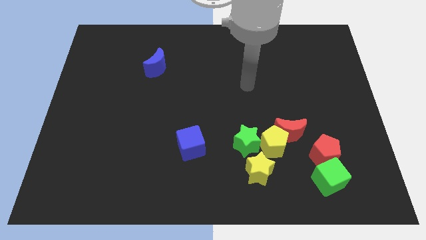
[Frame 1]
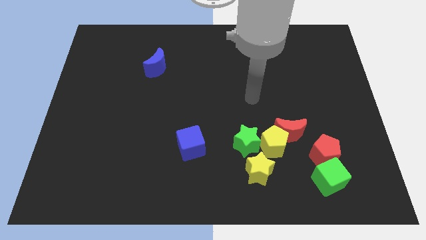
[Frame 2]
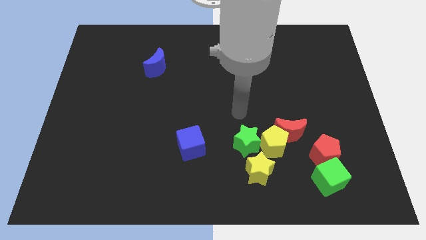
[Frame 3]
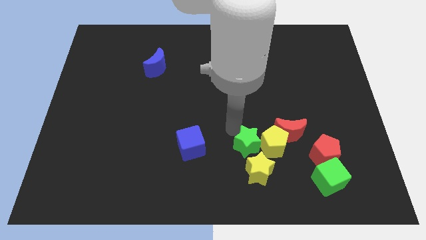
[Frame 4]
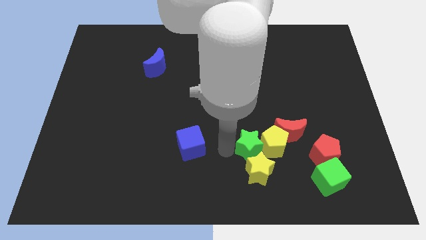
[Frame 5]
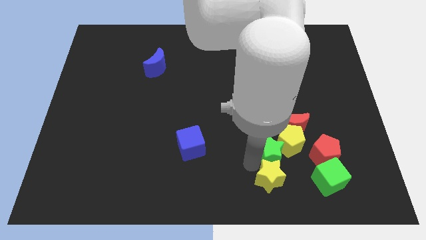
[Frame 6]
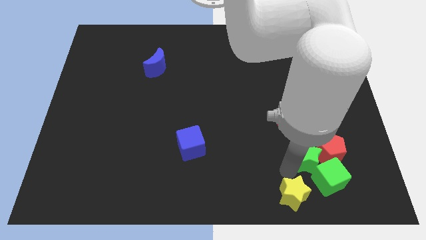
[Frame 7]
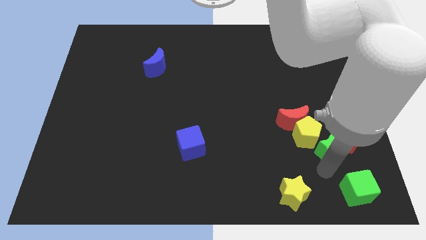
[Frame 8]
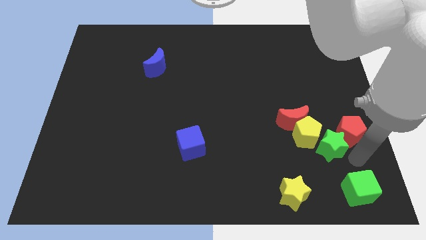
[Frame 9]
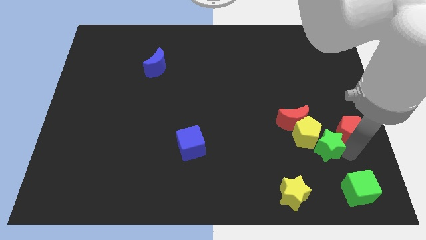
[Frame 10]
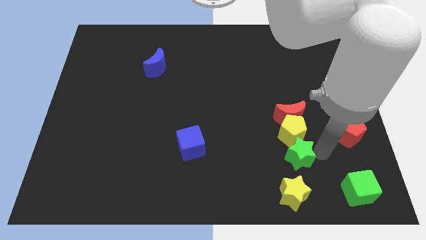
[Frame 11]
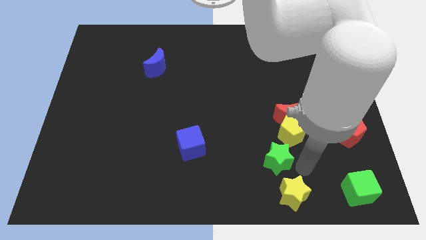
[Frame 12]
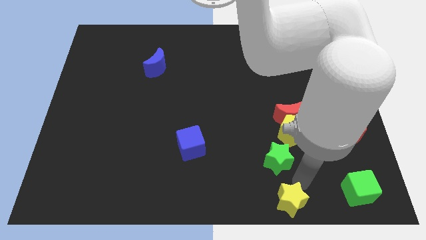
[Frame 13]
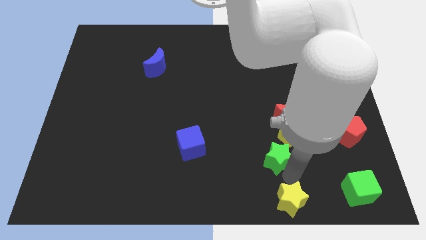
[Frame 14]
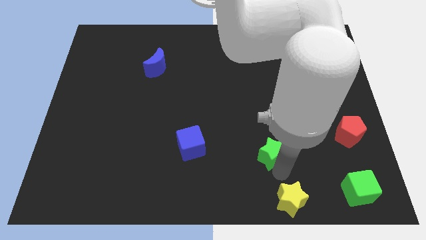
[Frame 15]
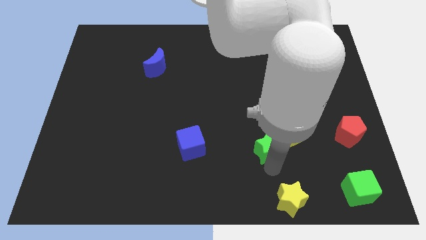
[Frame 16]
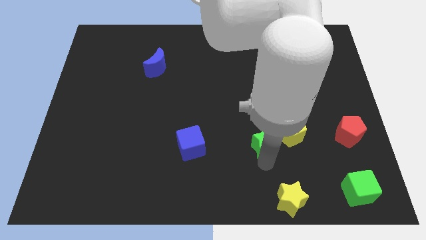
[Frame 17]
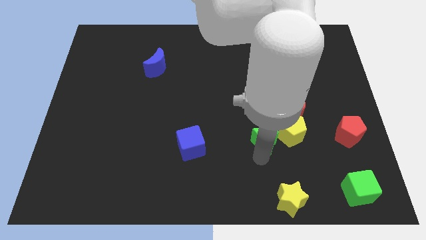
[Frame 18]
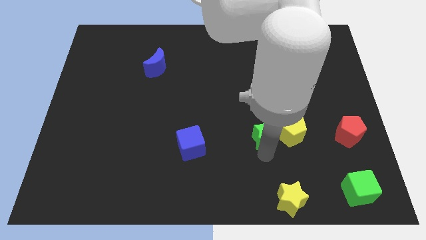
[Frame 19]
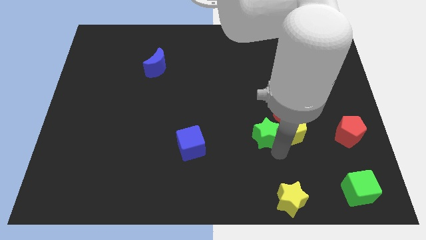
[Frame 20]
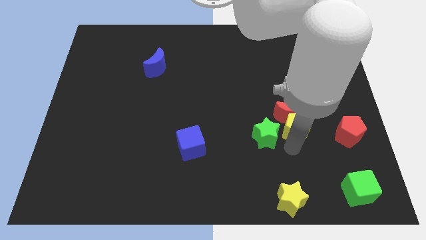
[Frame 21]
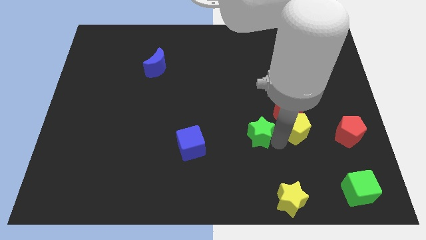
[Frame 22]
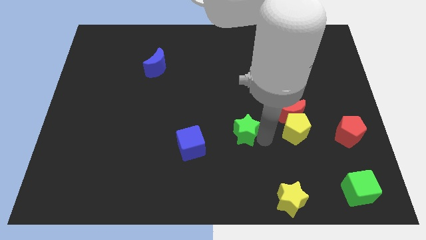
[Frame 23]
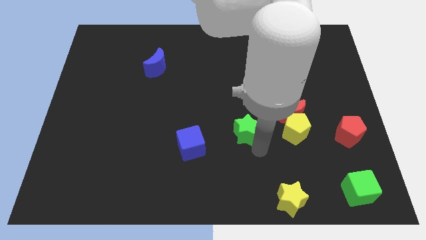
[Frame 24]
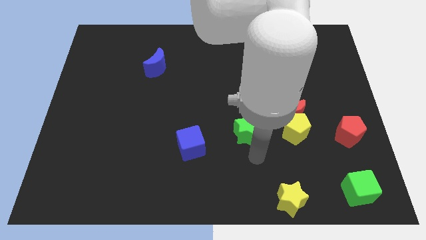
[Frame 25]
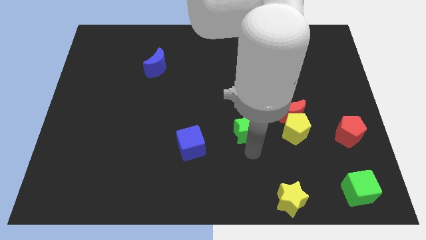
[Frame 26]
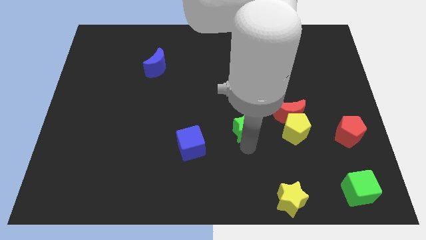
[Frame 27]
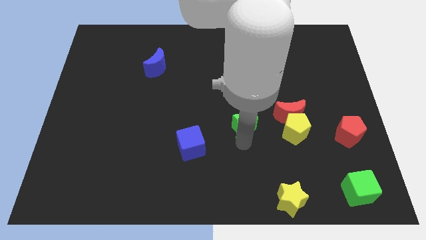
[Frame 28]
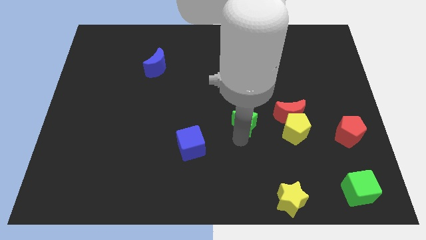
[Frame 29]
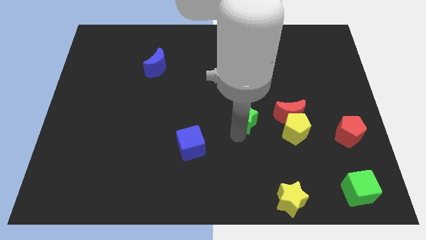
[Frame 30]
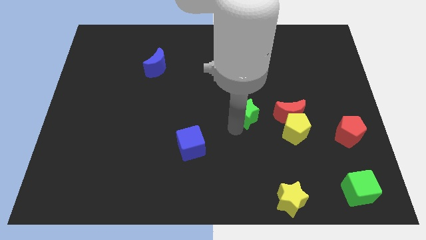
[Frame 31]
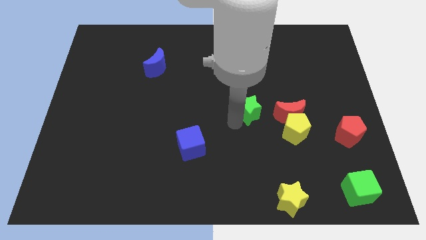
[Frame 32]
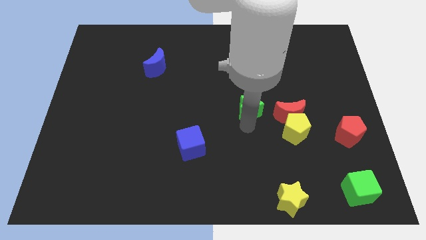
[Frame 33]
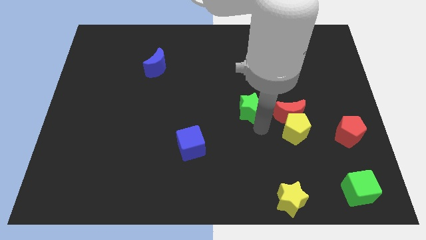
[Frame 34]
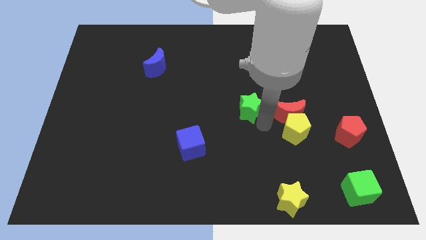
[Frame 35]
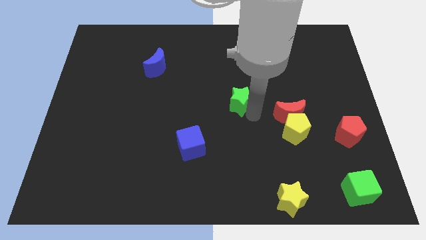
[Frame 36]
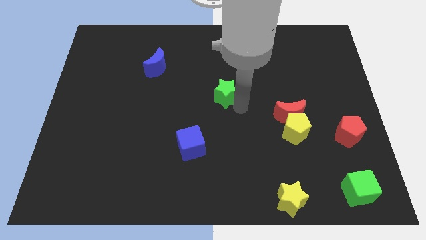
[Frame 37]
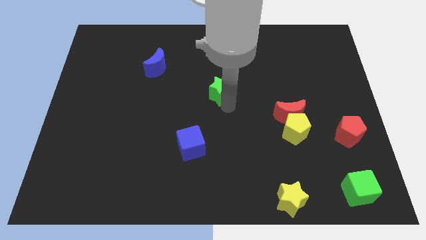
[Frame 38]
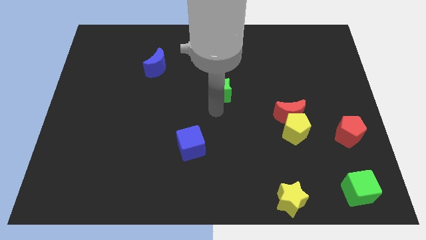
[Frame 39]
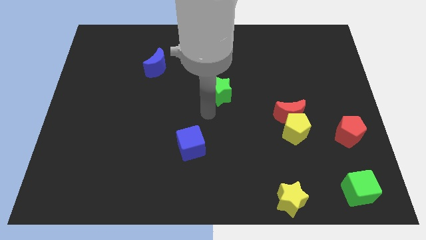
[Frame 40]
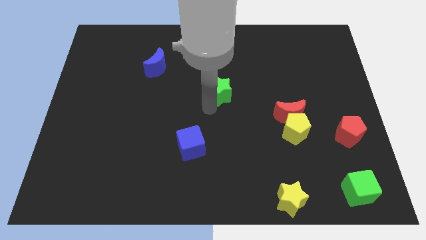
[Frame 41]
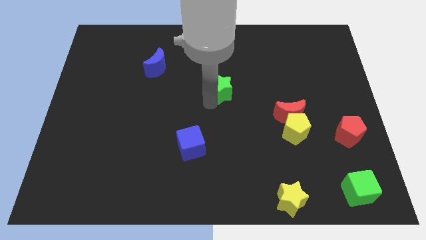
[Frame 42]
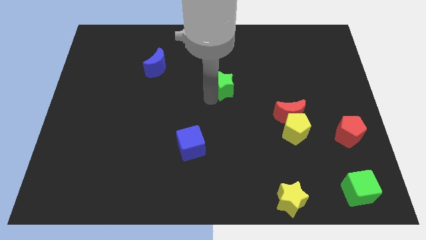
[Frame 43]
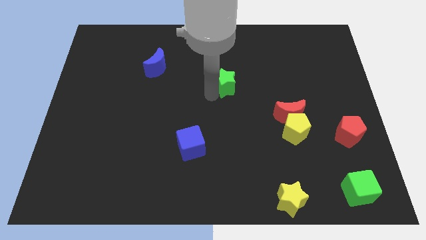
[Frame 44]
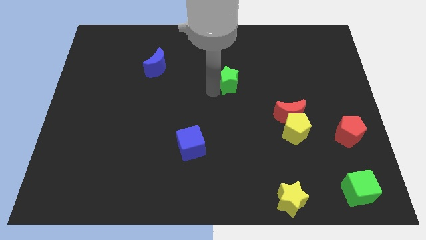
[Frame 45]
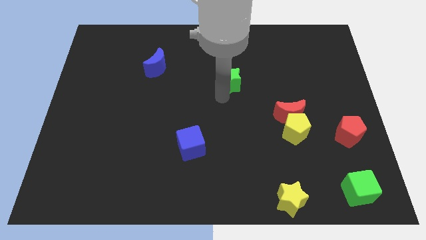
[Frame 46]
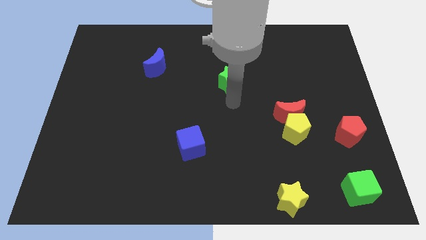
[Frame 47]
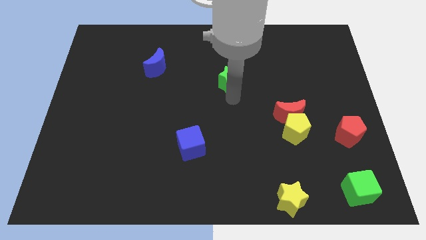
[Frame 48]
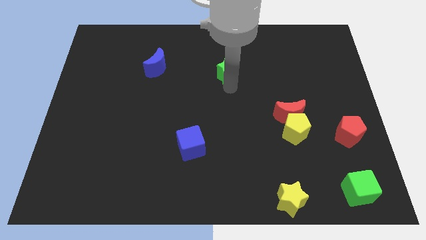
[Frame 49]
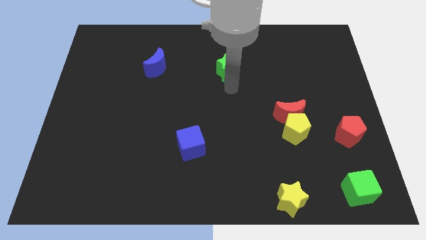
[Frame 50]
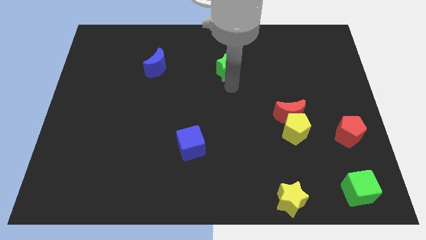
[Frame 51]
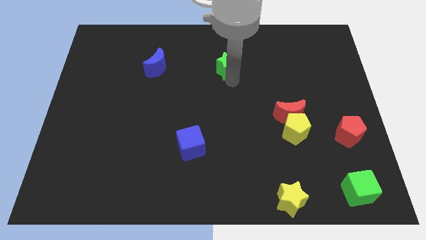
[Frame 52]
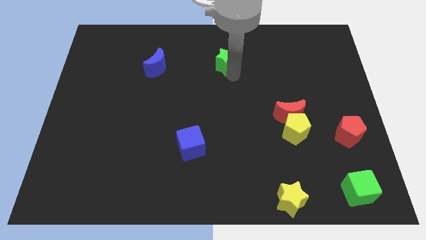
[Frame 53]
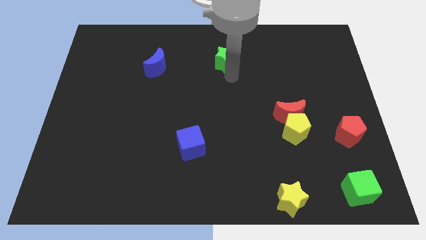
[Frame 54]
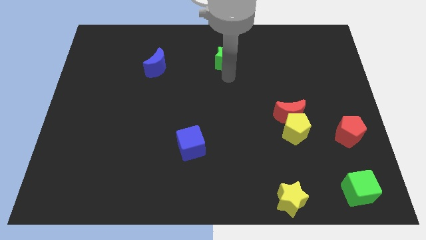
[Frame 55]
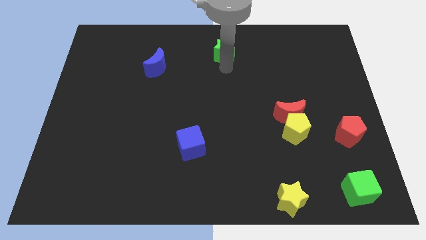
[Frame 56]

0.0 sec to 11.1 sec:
move the green star to the top
